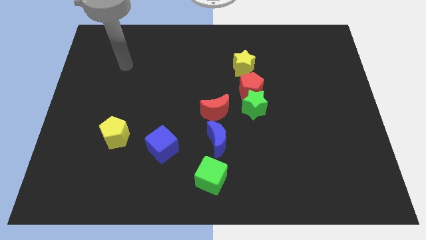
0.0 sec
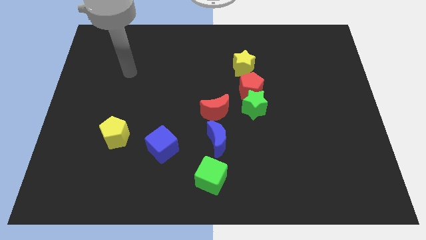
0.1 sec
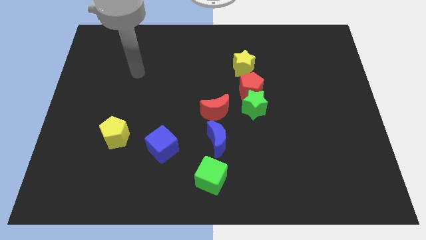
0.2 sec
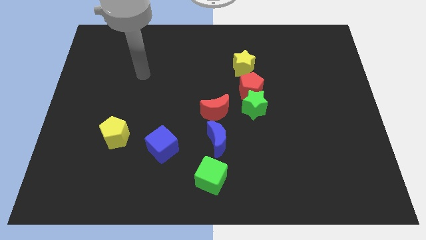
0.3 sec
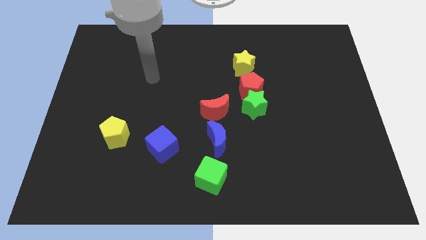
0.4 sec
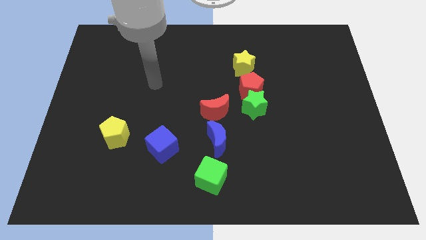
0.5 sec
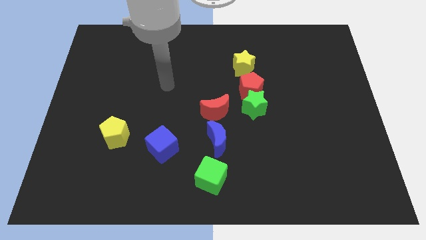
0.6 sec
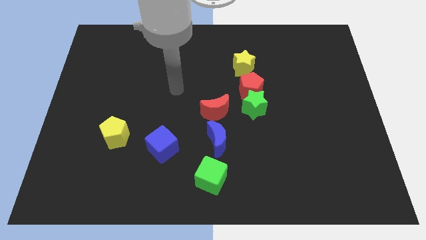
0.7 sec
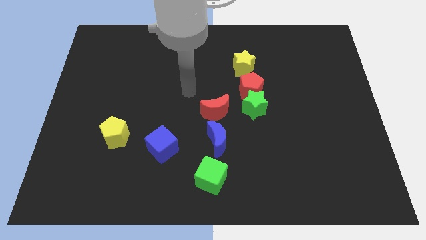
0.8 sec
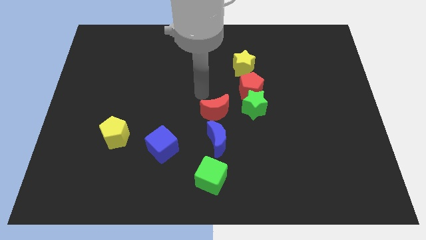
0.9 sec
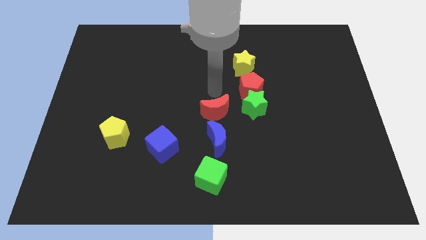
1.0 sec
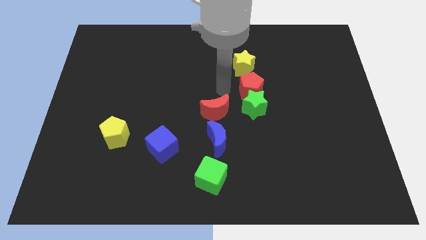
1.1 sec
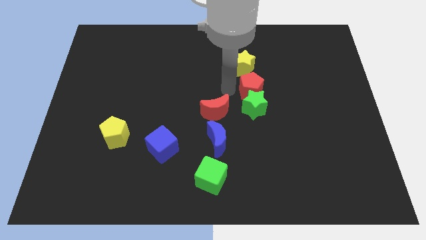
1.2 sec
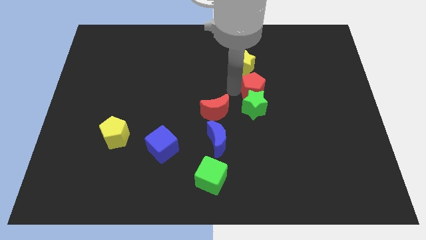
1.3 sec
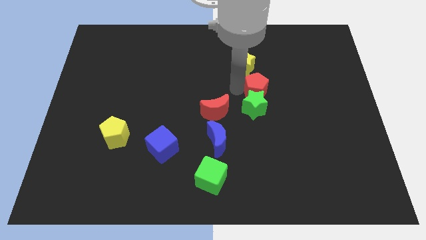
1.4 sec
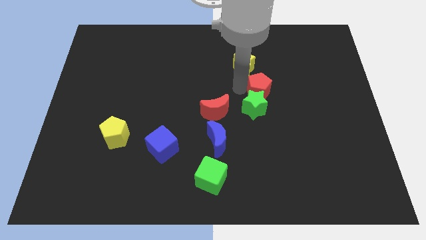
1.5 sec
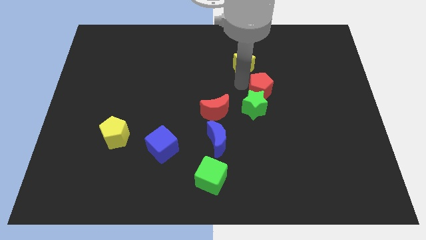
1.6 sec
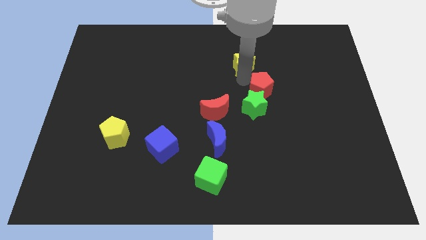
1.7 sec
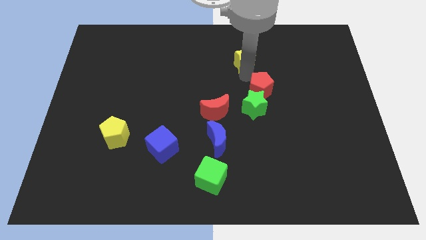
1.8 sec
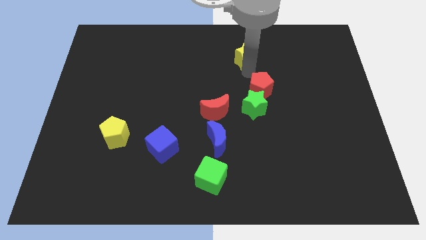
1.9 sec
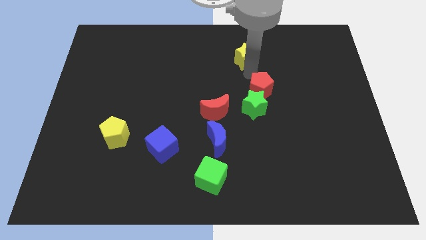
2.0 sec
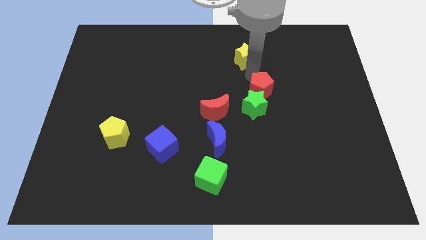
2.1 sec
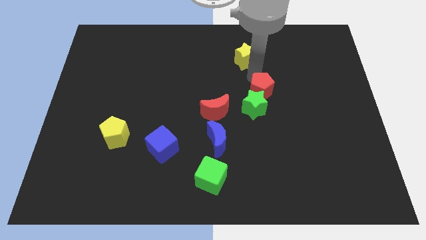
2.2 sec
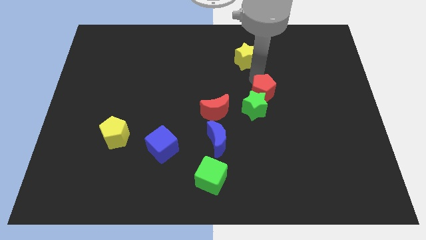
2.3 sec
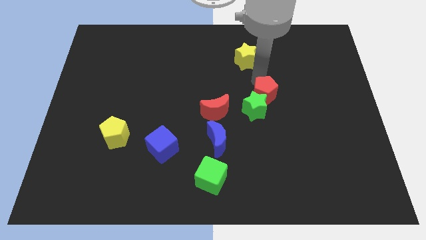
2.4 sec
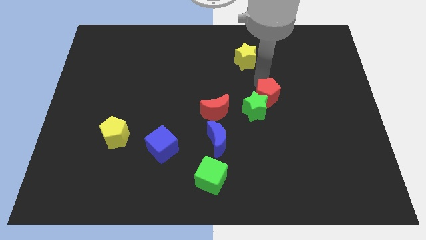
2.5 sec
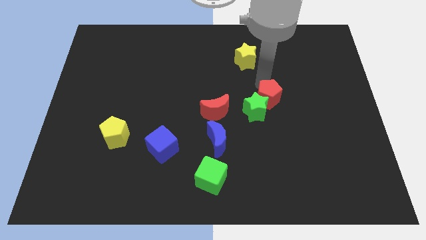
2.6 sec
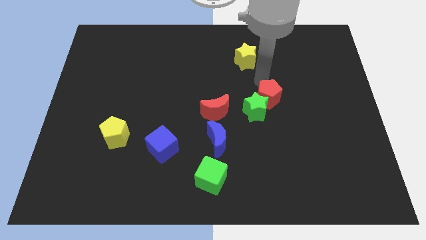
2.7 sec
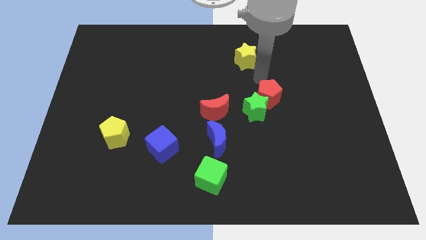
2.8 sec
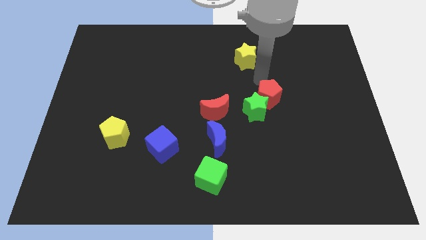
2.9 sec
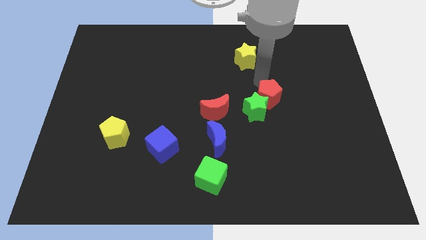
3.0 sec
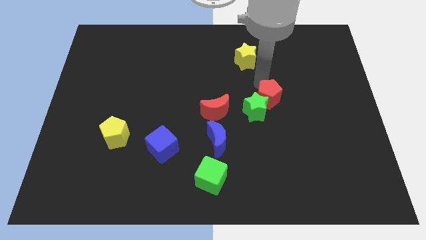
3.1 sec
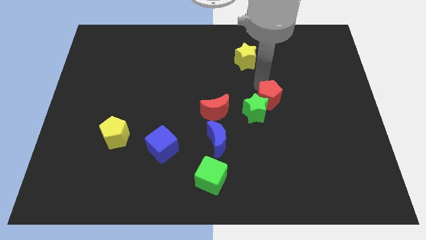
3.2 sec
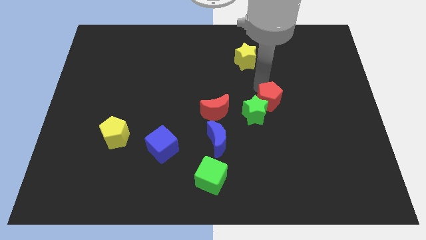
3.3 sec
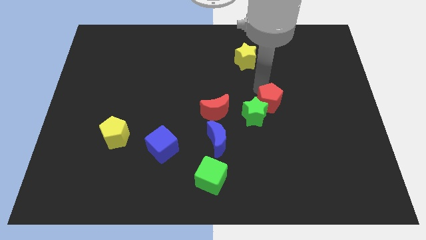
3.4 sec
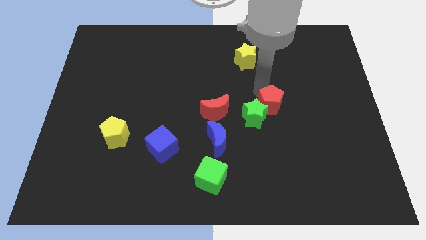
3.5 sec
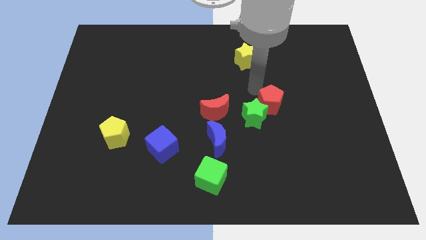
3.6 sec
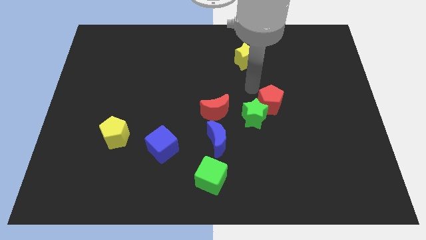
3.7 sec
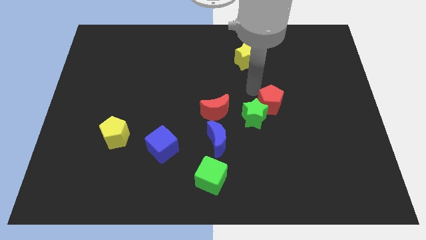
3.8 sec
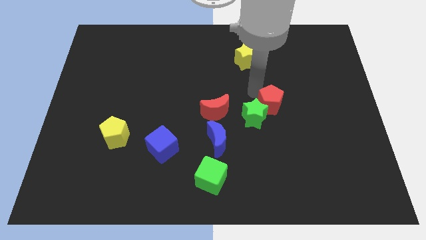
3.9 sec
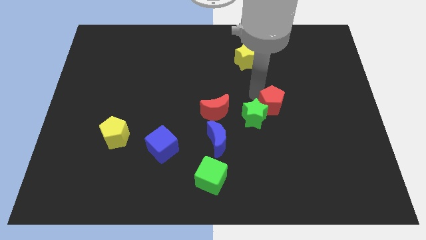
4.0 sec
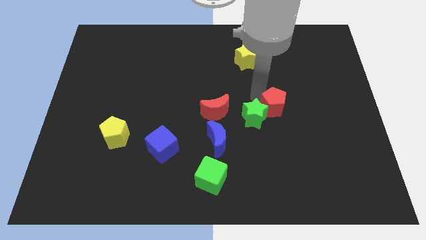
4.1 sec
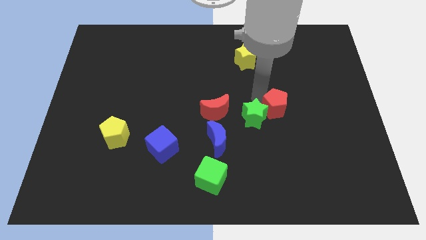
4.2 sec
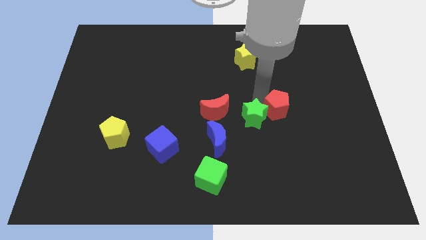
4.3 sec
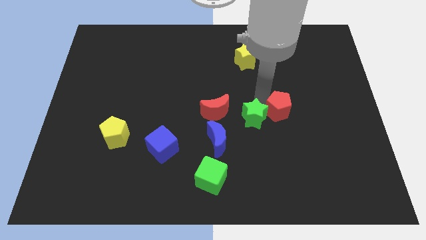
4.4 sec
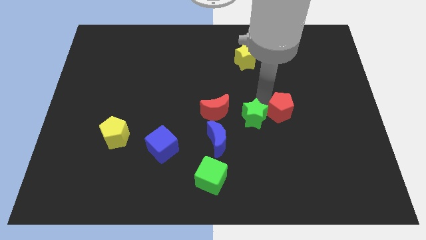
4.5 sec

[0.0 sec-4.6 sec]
move the red pentagon away from the green star and yellow star

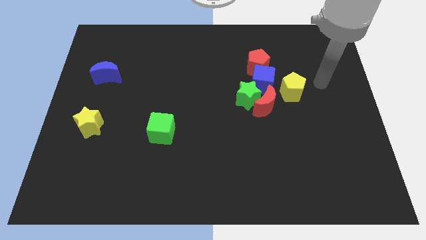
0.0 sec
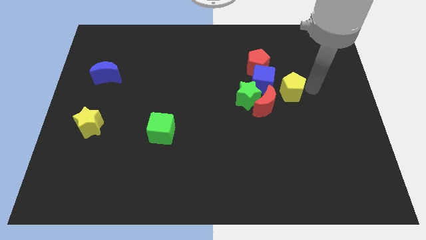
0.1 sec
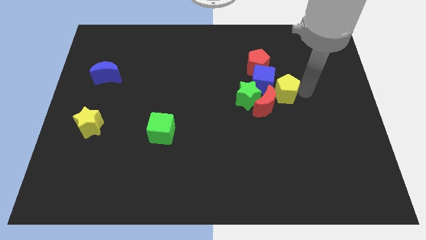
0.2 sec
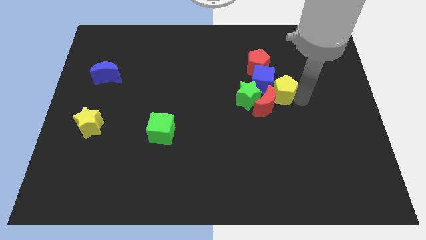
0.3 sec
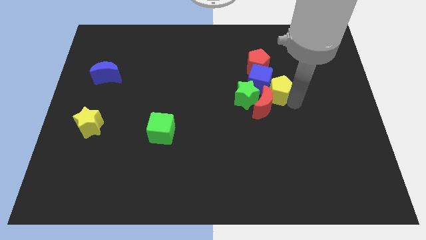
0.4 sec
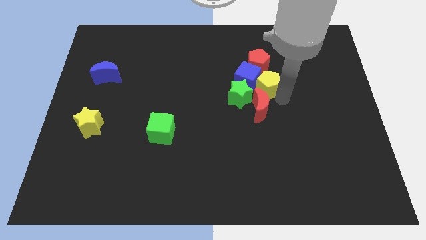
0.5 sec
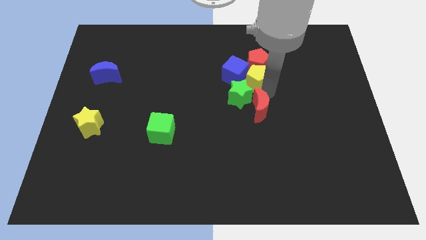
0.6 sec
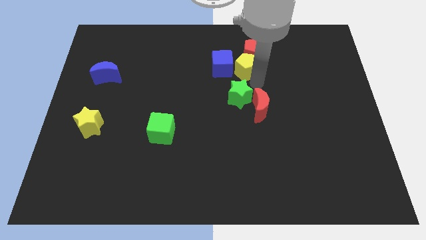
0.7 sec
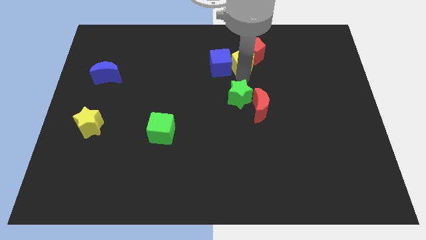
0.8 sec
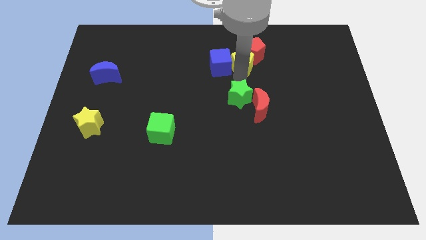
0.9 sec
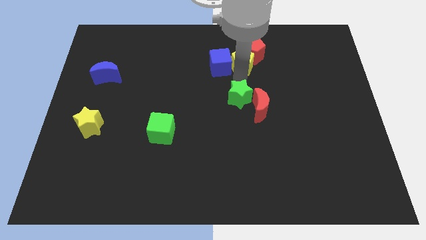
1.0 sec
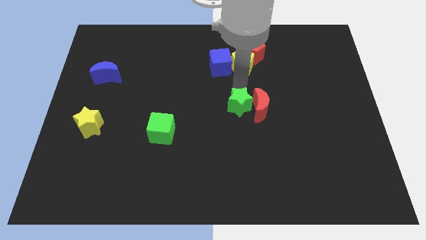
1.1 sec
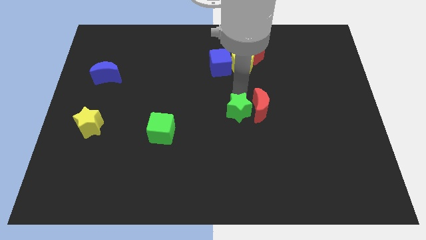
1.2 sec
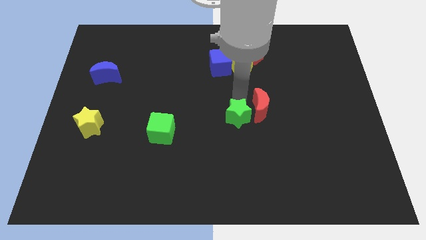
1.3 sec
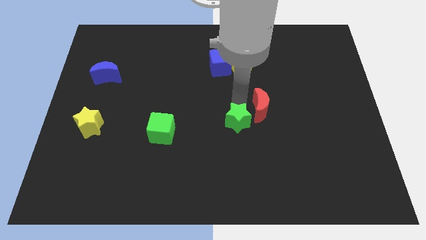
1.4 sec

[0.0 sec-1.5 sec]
move the green star away from the red moon and blue cube

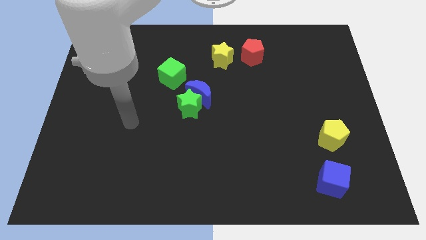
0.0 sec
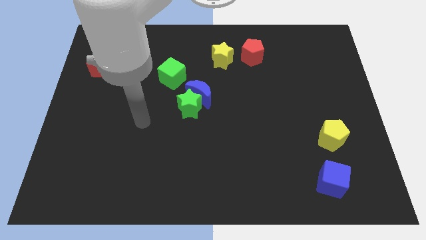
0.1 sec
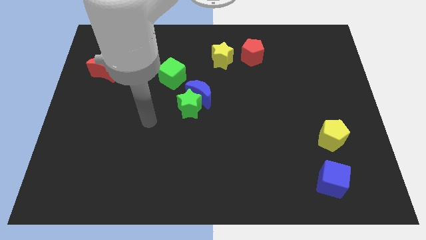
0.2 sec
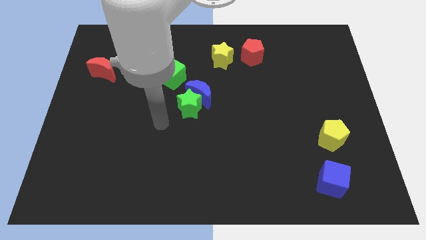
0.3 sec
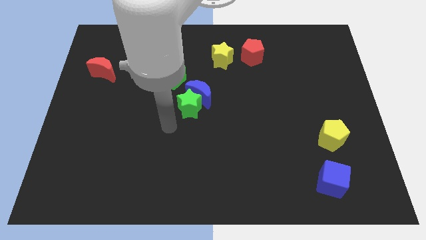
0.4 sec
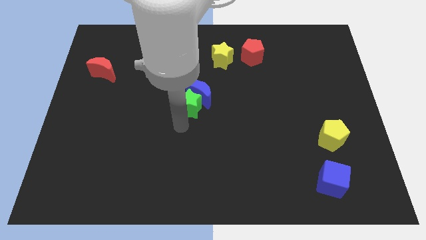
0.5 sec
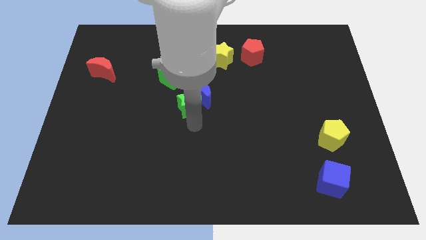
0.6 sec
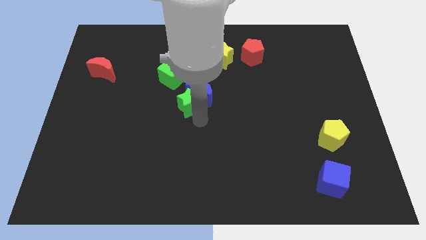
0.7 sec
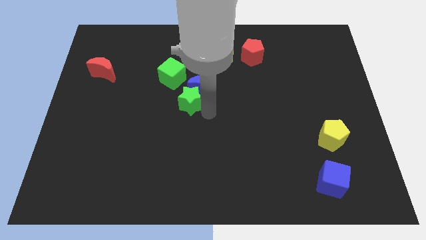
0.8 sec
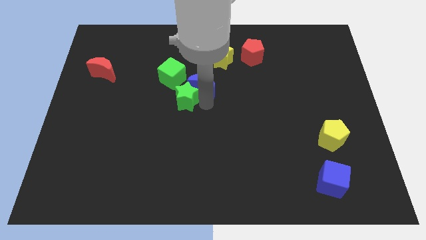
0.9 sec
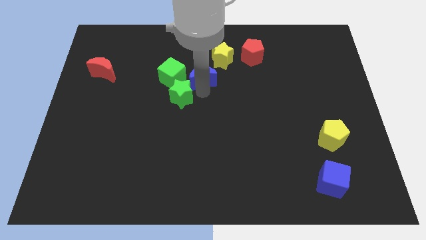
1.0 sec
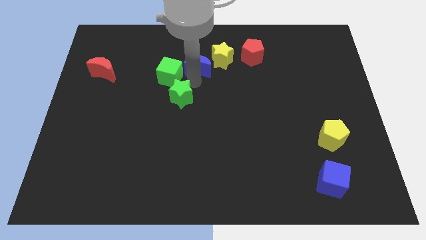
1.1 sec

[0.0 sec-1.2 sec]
move the green star away from the blue moon

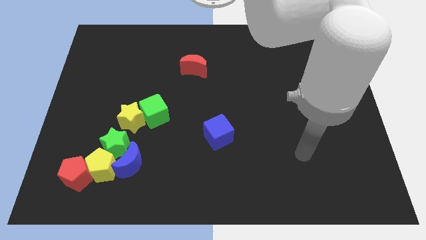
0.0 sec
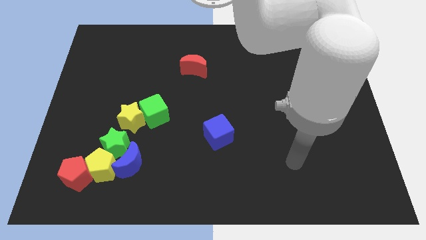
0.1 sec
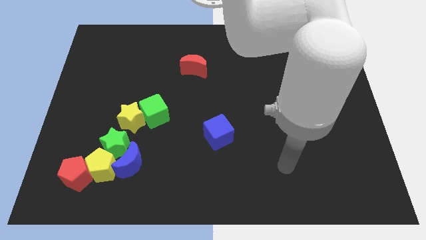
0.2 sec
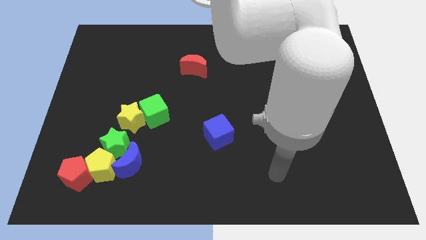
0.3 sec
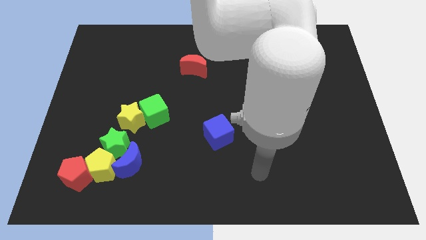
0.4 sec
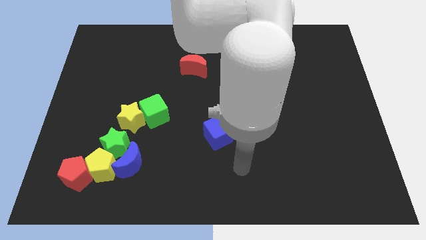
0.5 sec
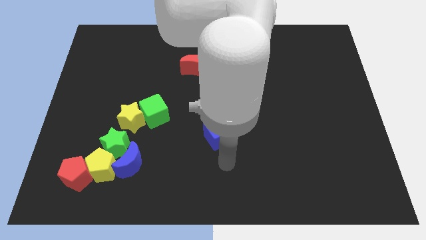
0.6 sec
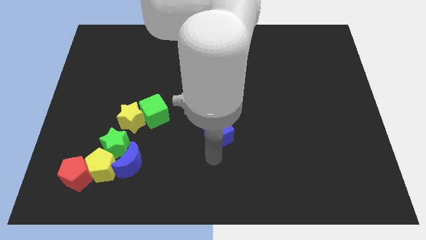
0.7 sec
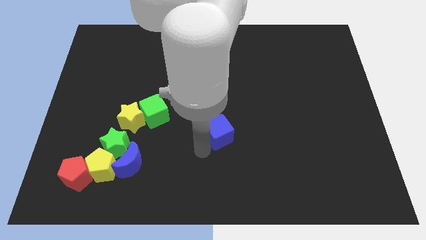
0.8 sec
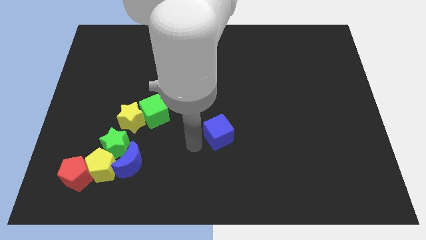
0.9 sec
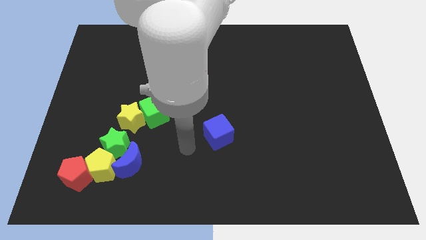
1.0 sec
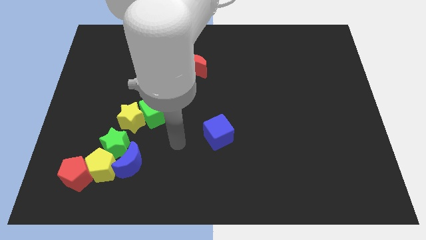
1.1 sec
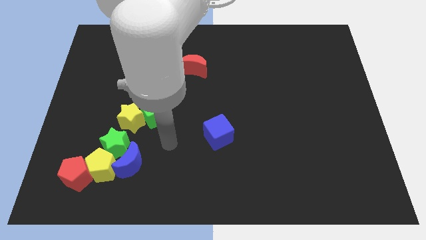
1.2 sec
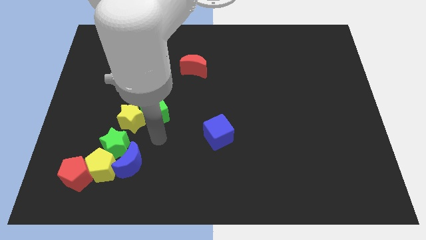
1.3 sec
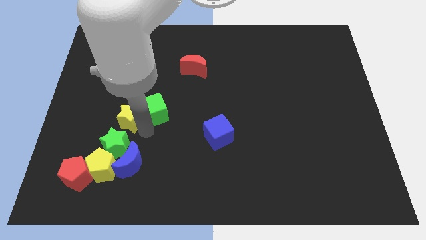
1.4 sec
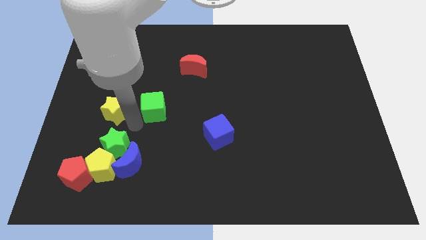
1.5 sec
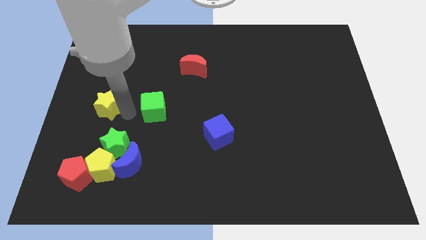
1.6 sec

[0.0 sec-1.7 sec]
separate the green cube from the yellow star

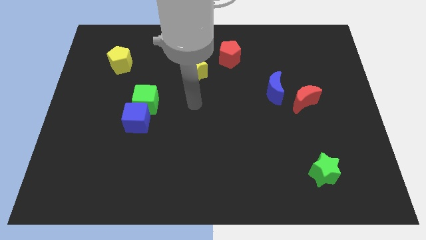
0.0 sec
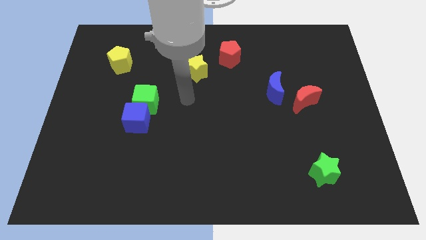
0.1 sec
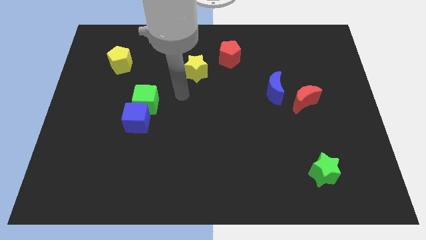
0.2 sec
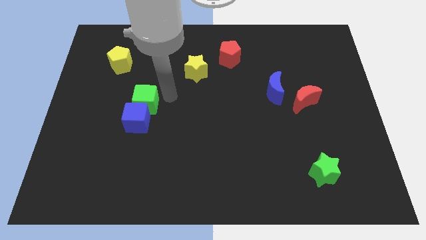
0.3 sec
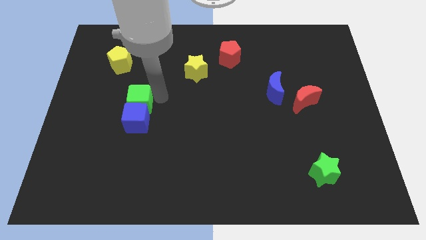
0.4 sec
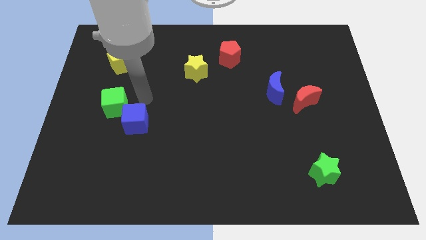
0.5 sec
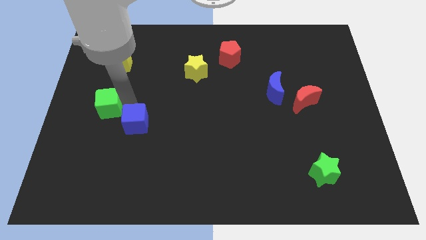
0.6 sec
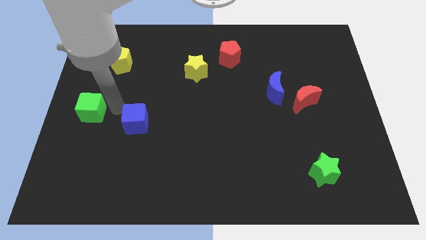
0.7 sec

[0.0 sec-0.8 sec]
pull the blue cube apart from the green cube
